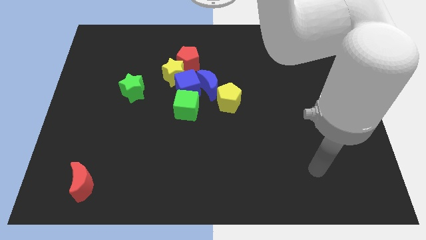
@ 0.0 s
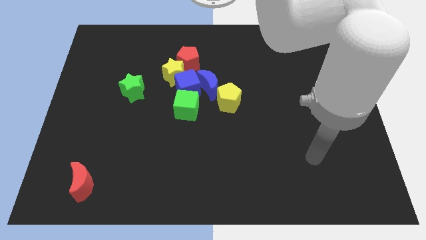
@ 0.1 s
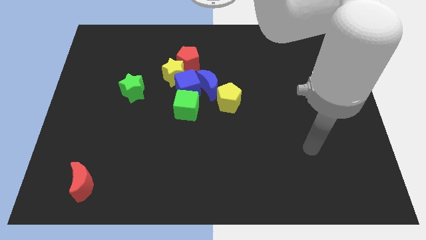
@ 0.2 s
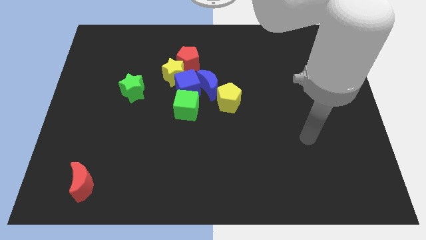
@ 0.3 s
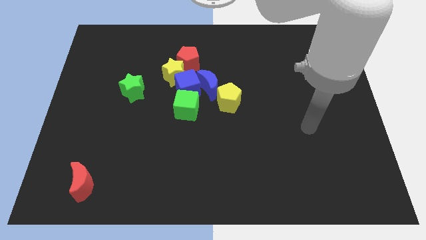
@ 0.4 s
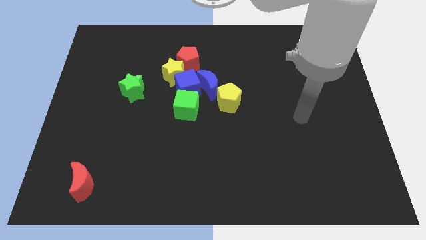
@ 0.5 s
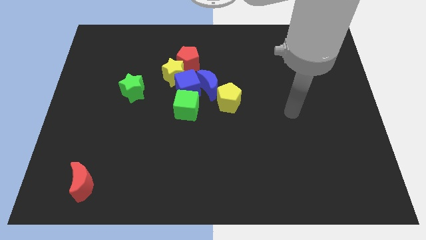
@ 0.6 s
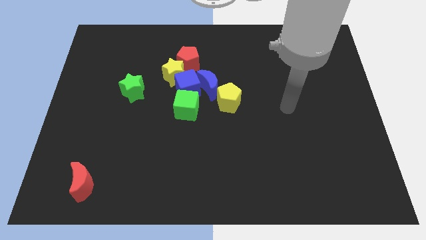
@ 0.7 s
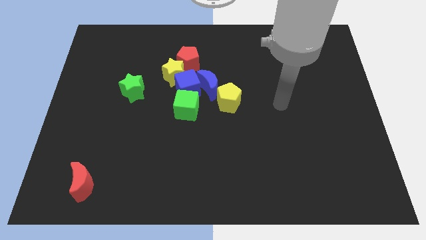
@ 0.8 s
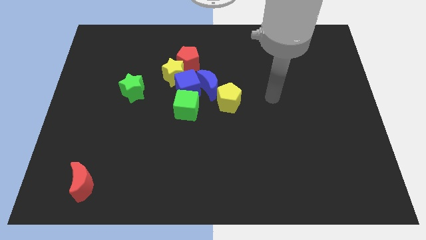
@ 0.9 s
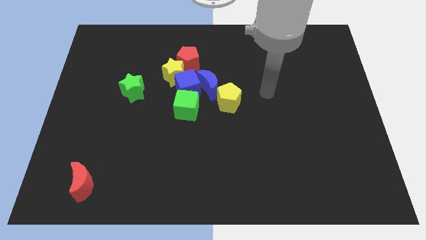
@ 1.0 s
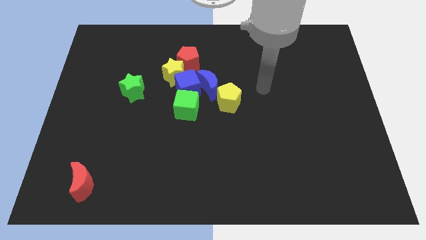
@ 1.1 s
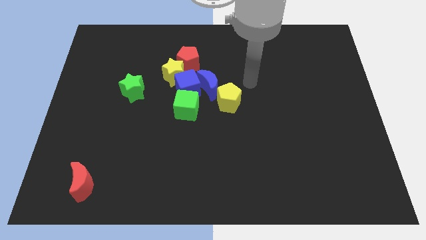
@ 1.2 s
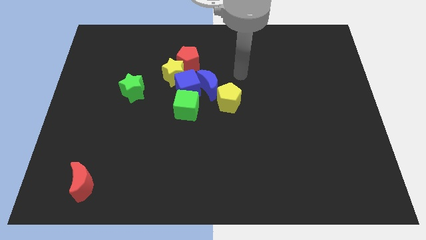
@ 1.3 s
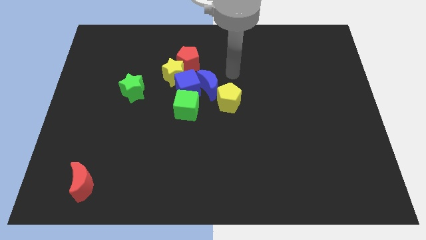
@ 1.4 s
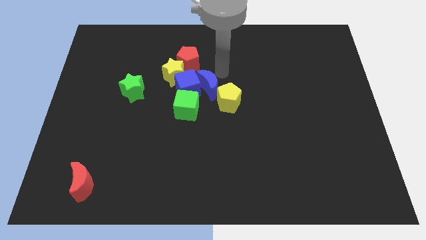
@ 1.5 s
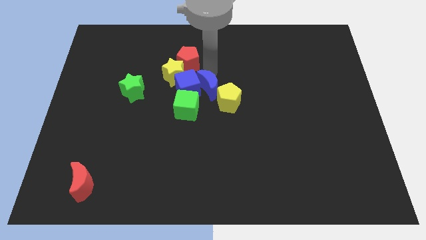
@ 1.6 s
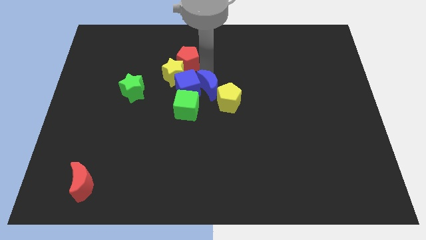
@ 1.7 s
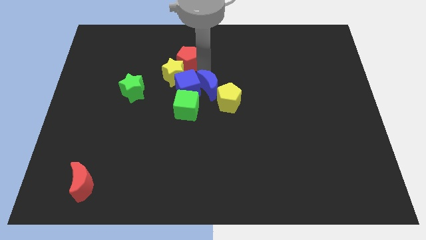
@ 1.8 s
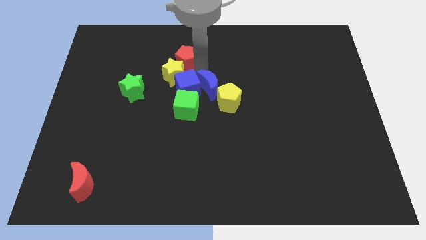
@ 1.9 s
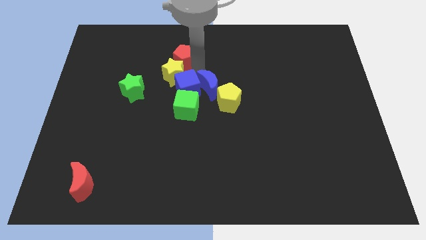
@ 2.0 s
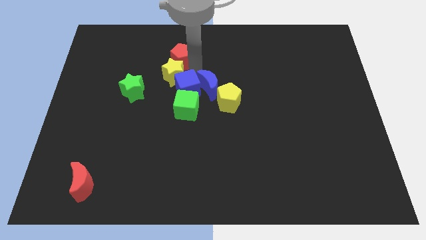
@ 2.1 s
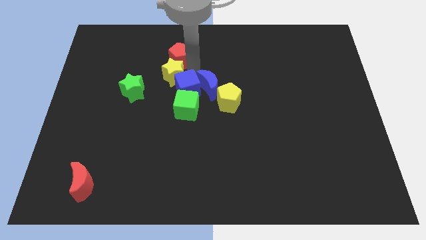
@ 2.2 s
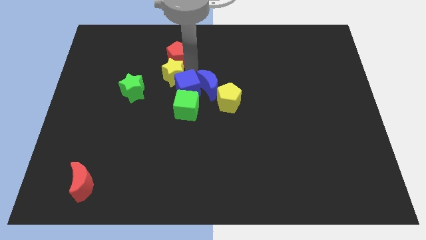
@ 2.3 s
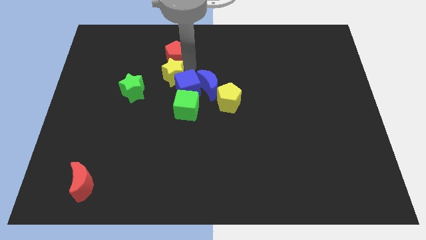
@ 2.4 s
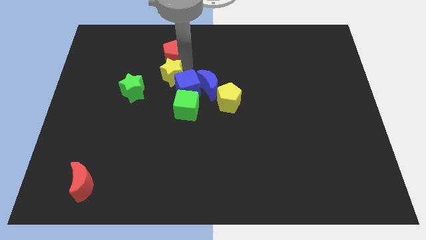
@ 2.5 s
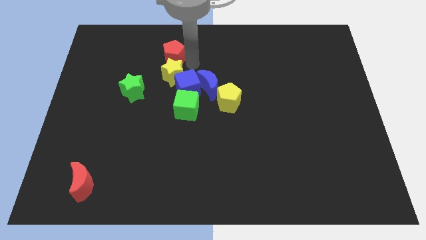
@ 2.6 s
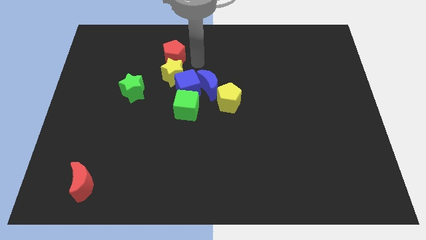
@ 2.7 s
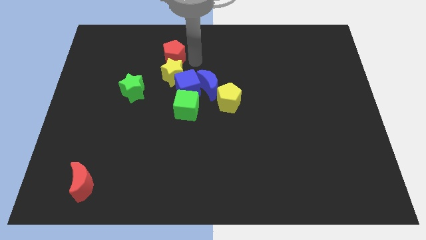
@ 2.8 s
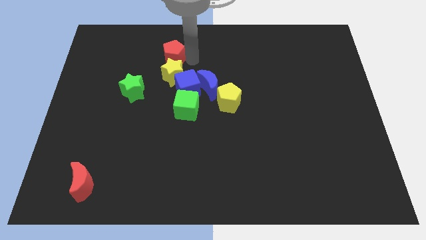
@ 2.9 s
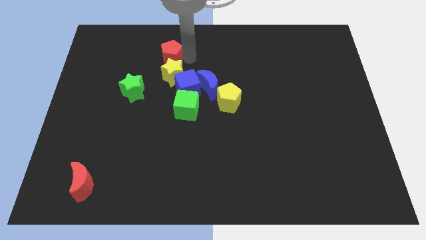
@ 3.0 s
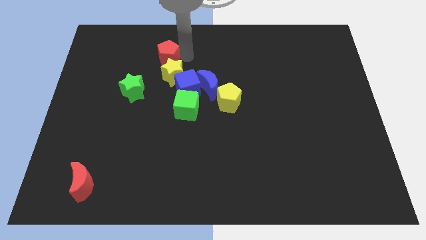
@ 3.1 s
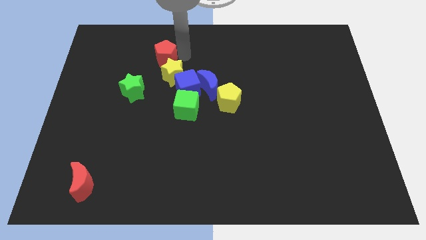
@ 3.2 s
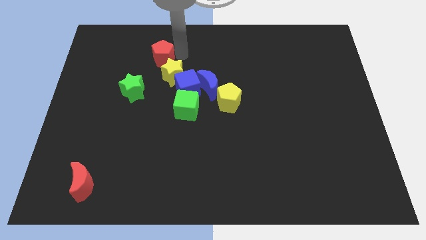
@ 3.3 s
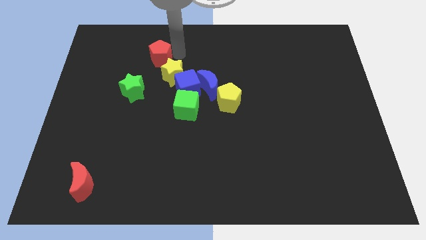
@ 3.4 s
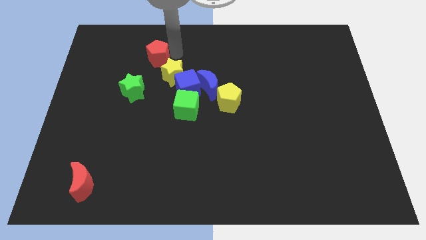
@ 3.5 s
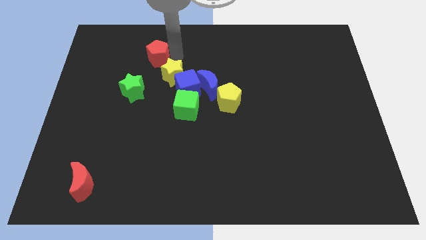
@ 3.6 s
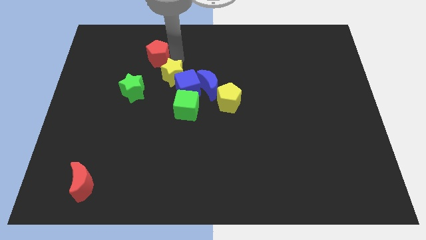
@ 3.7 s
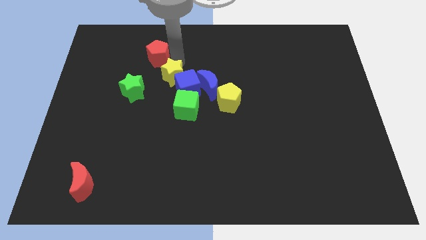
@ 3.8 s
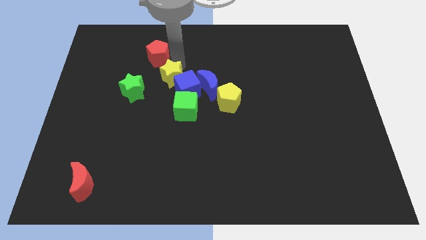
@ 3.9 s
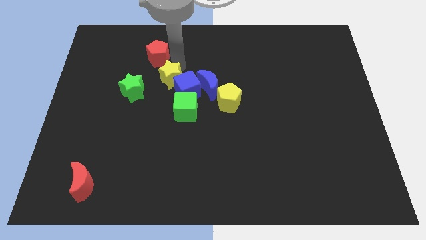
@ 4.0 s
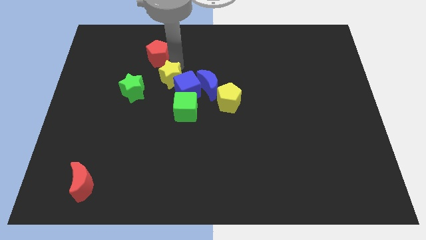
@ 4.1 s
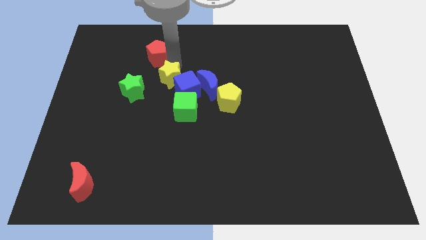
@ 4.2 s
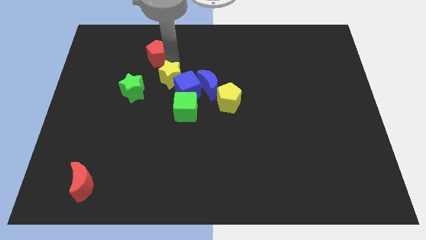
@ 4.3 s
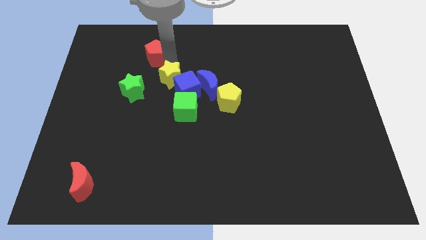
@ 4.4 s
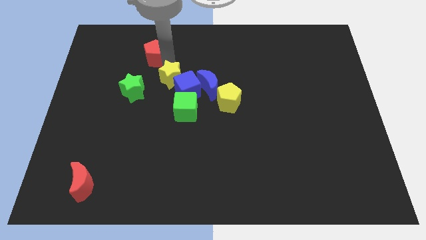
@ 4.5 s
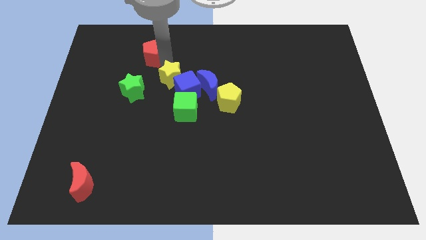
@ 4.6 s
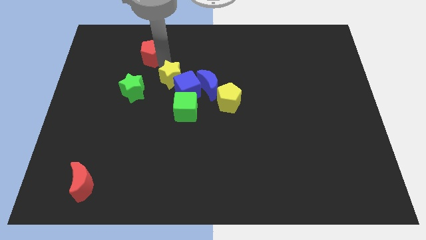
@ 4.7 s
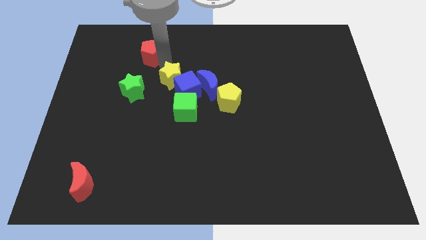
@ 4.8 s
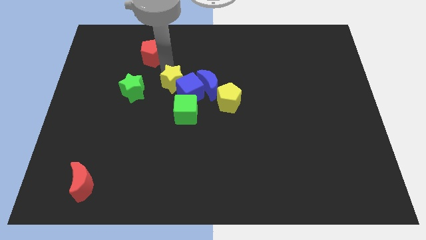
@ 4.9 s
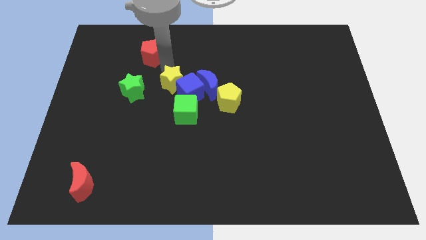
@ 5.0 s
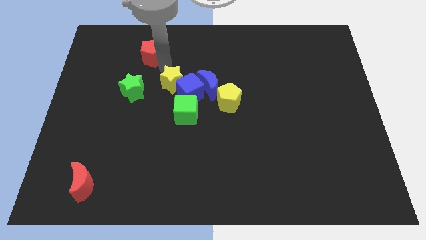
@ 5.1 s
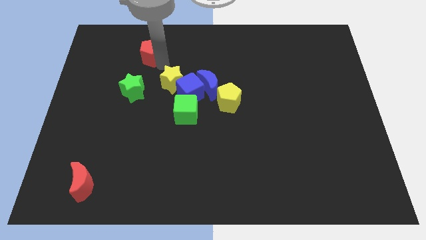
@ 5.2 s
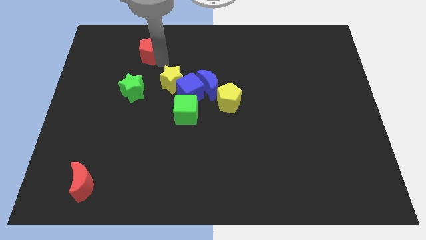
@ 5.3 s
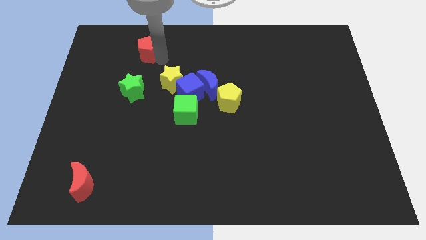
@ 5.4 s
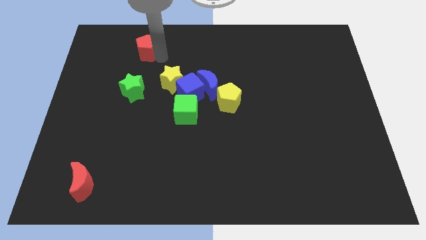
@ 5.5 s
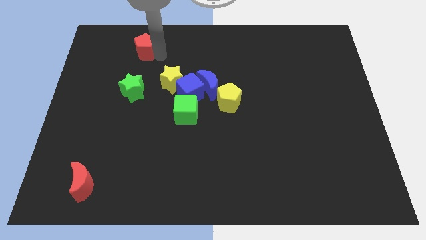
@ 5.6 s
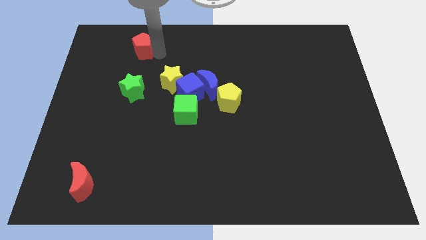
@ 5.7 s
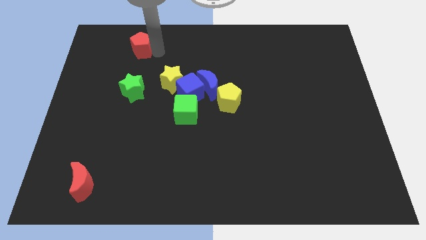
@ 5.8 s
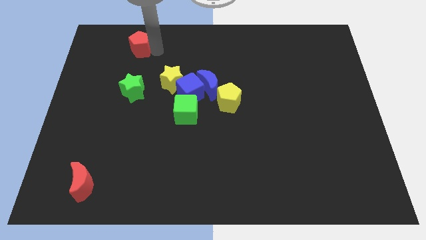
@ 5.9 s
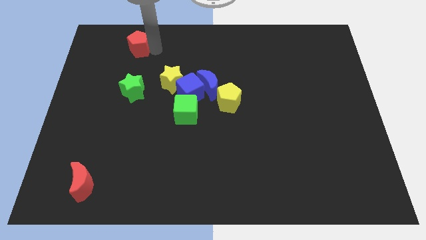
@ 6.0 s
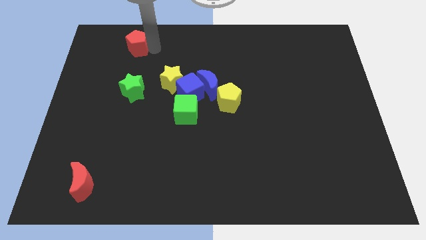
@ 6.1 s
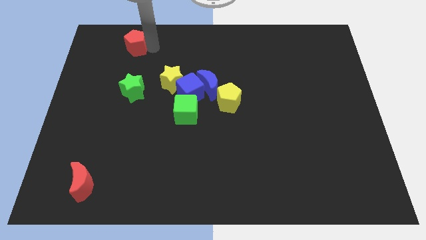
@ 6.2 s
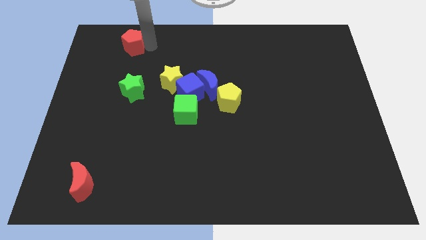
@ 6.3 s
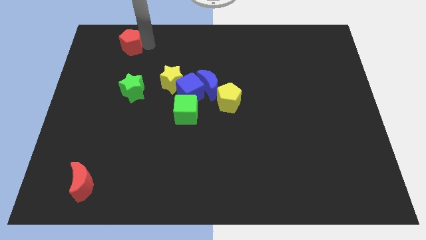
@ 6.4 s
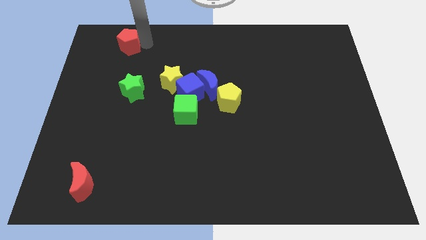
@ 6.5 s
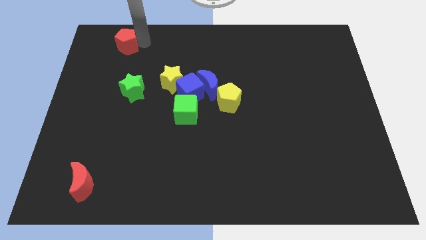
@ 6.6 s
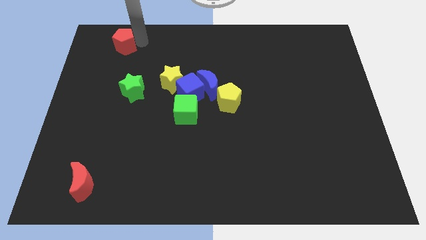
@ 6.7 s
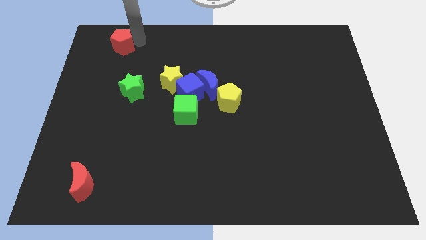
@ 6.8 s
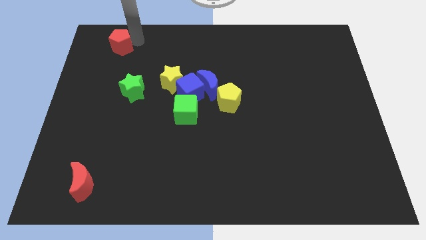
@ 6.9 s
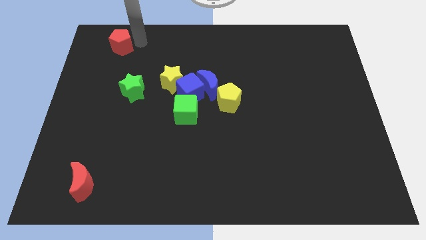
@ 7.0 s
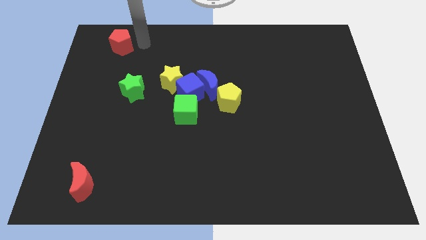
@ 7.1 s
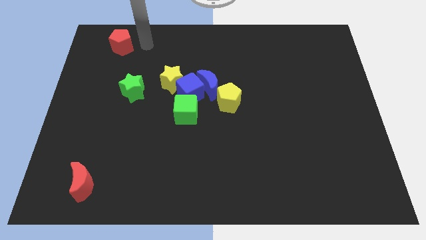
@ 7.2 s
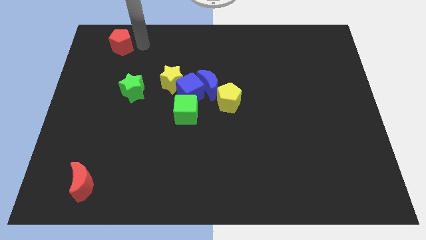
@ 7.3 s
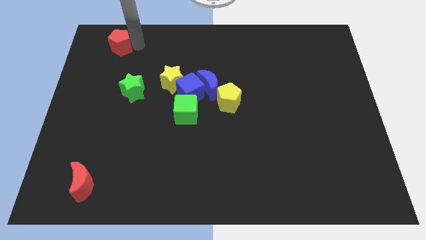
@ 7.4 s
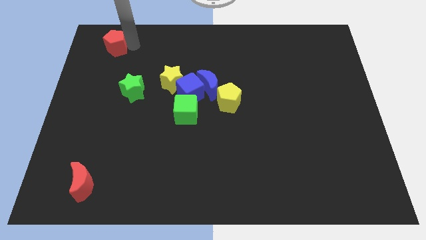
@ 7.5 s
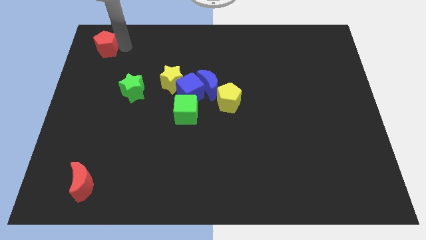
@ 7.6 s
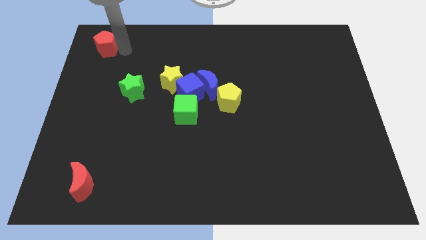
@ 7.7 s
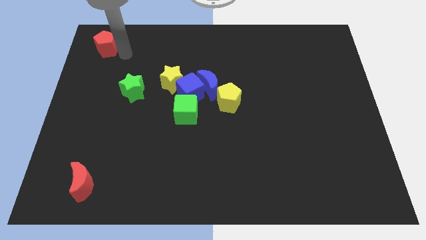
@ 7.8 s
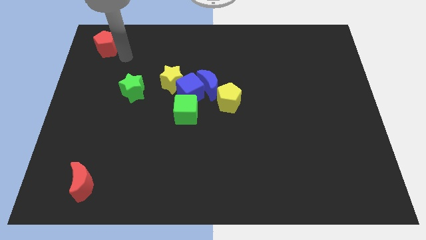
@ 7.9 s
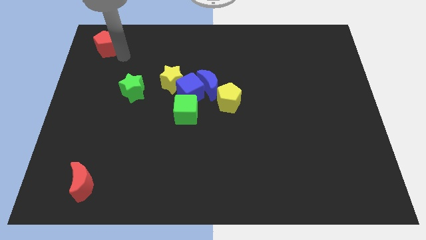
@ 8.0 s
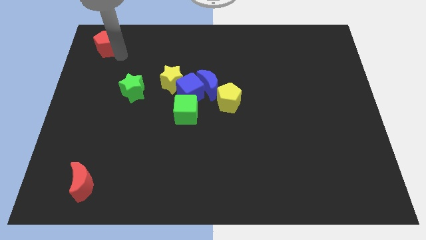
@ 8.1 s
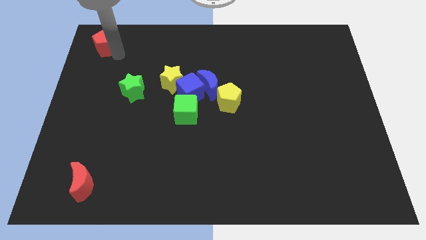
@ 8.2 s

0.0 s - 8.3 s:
slide the red pentagon to the top left
